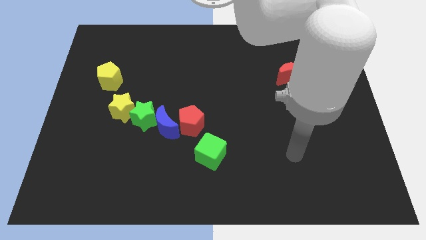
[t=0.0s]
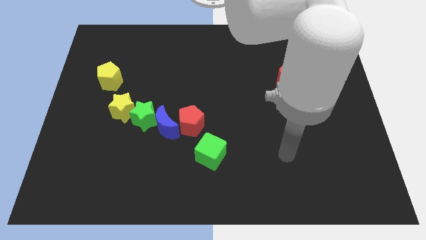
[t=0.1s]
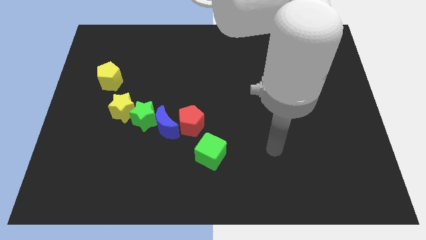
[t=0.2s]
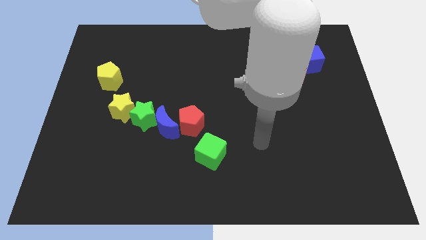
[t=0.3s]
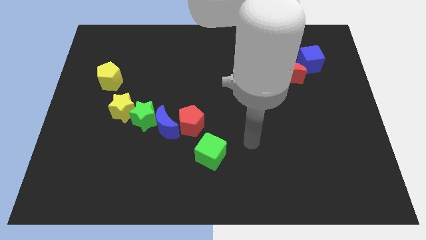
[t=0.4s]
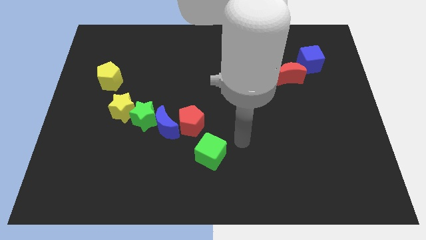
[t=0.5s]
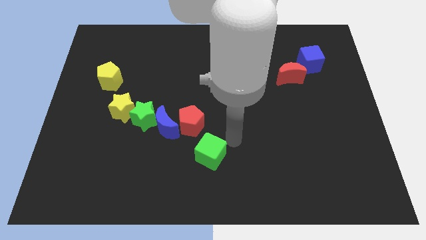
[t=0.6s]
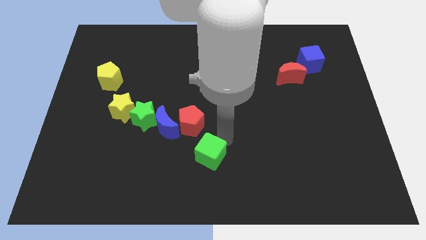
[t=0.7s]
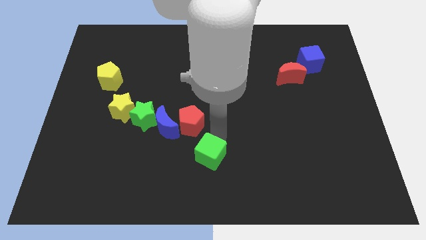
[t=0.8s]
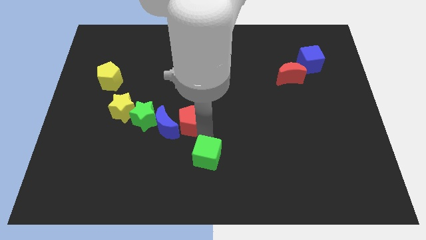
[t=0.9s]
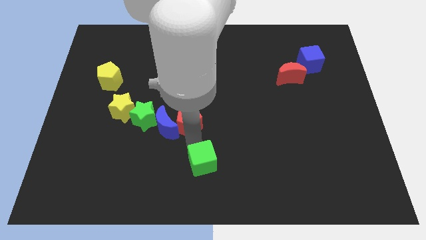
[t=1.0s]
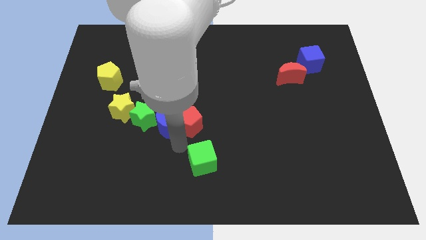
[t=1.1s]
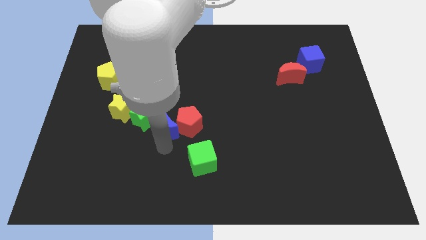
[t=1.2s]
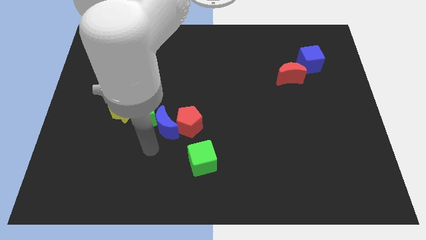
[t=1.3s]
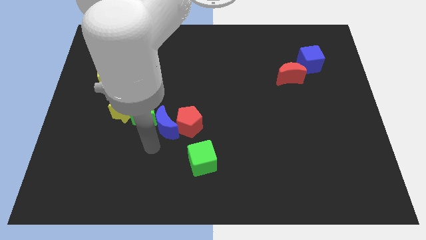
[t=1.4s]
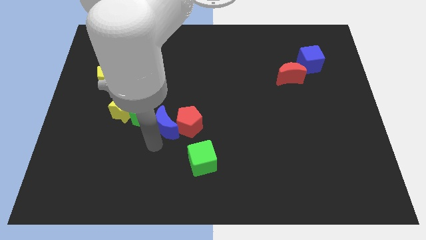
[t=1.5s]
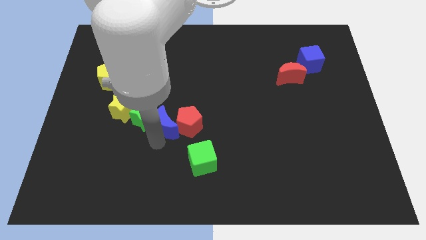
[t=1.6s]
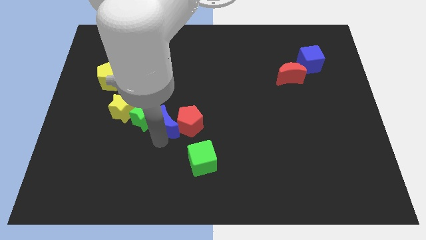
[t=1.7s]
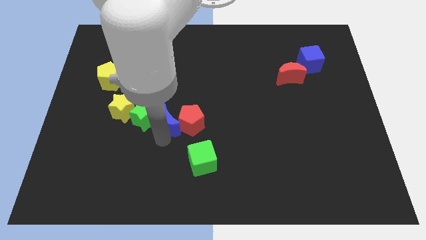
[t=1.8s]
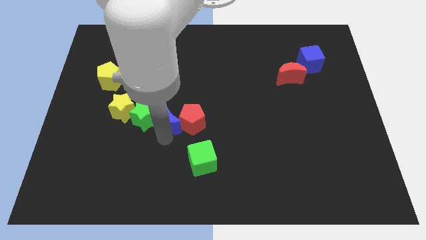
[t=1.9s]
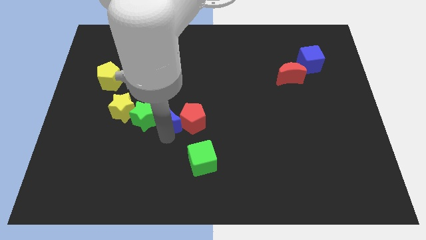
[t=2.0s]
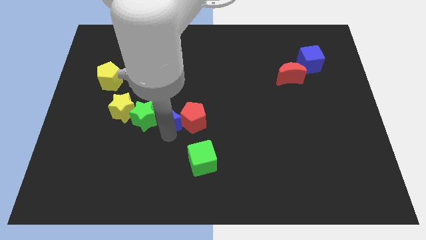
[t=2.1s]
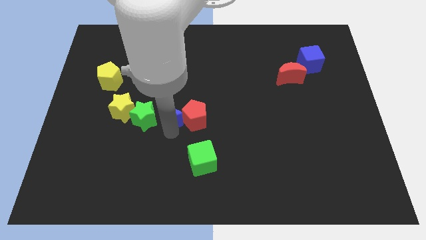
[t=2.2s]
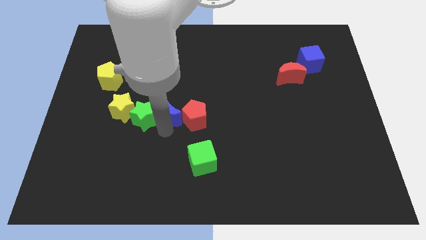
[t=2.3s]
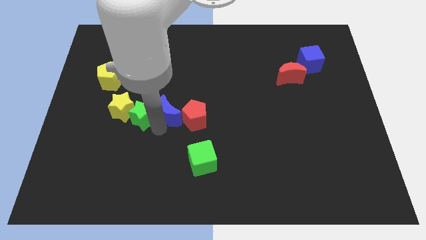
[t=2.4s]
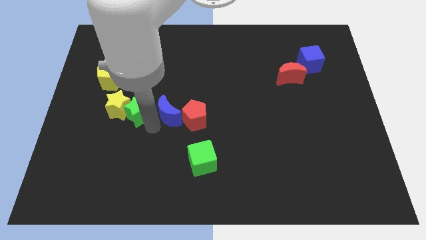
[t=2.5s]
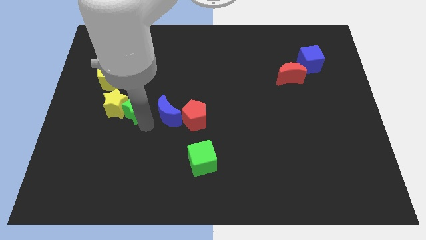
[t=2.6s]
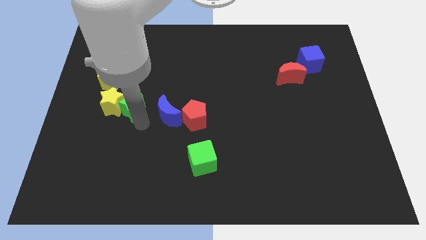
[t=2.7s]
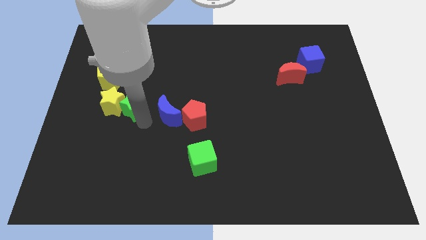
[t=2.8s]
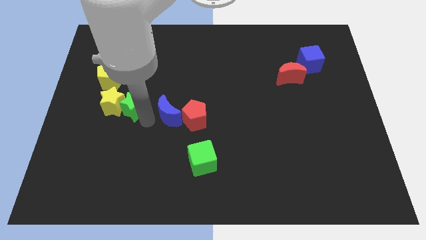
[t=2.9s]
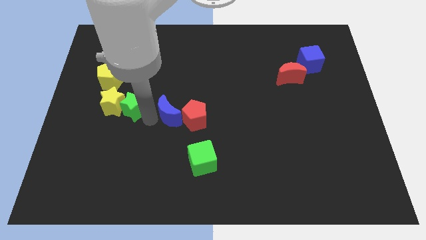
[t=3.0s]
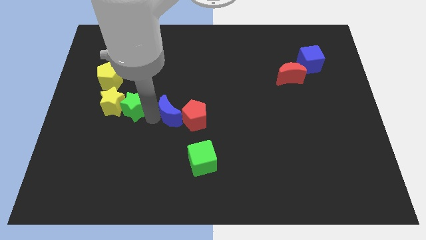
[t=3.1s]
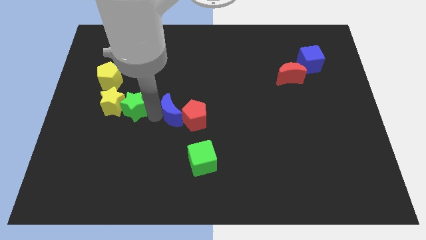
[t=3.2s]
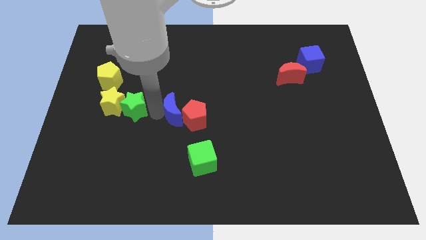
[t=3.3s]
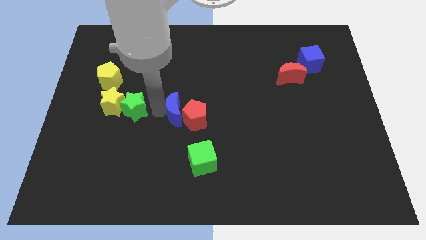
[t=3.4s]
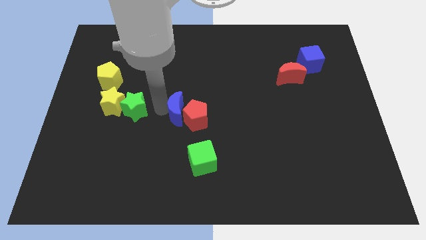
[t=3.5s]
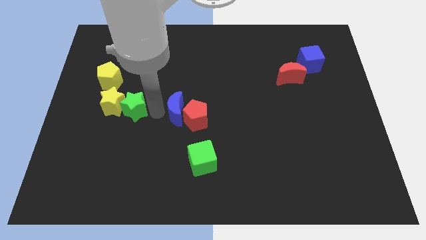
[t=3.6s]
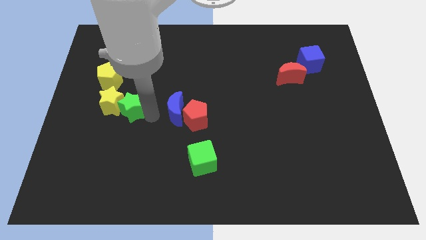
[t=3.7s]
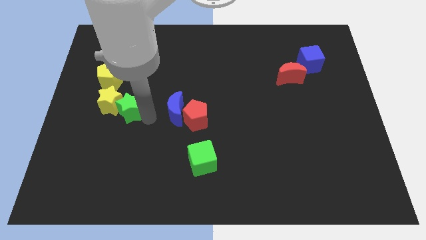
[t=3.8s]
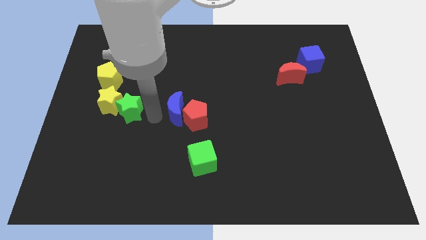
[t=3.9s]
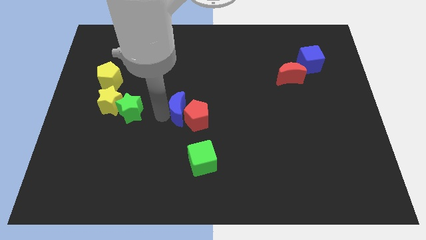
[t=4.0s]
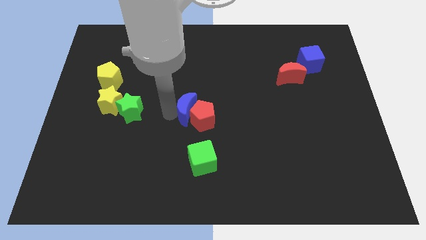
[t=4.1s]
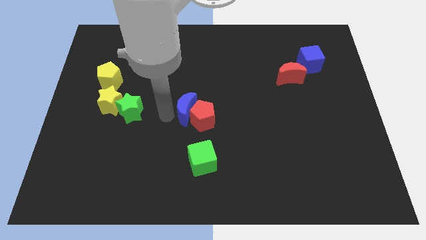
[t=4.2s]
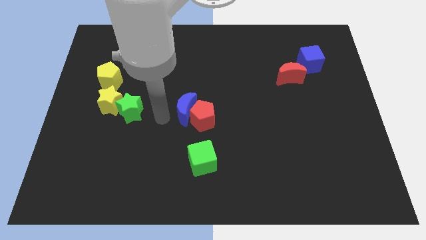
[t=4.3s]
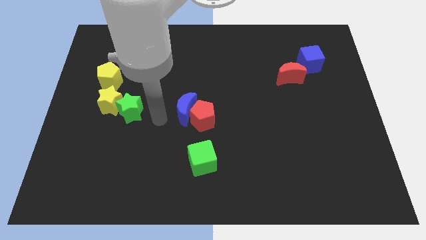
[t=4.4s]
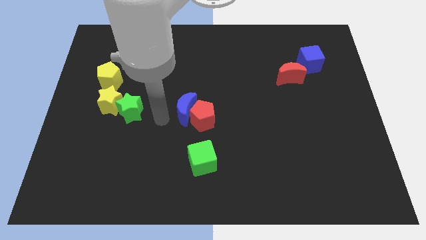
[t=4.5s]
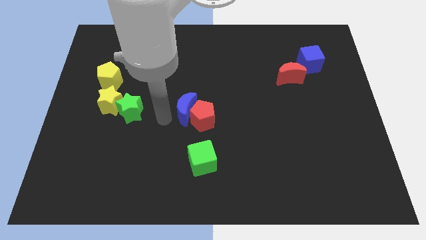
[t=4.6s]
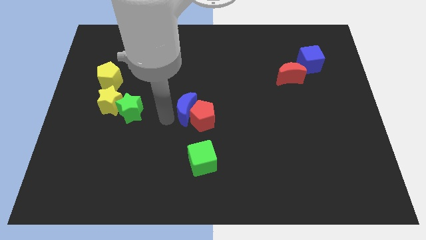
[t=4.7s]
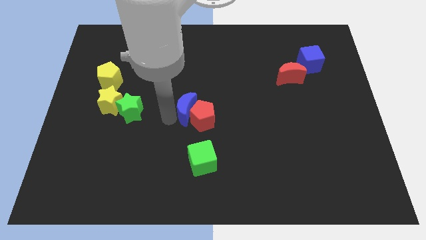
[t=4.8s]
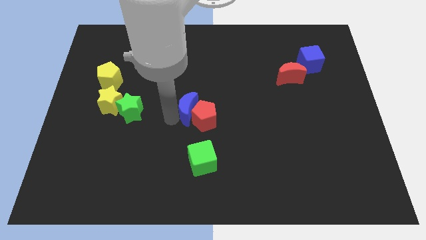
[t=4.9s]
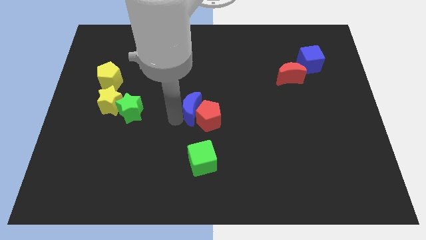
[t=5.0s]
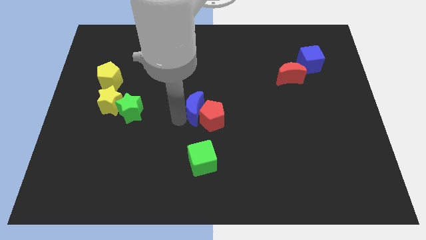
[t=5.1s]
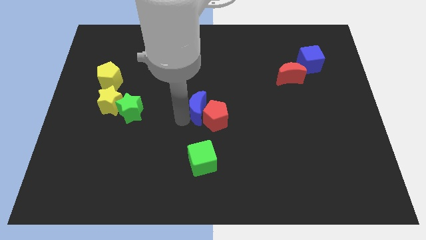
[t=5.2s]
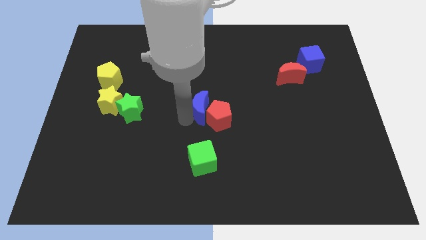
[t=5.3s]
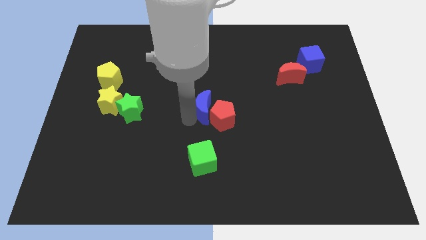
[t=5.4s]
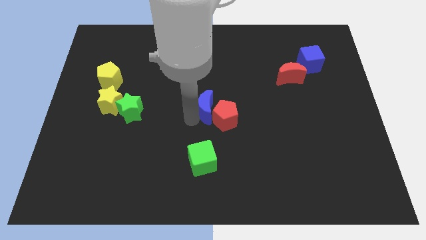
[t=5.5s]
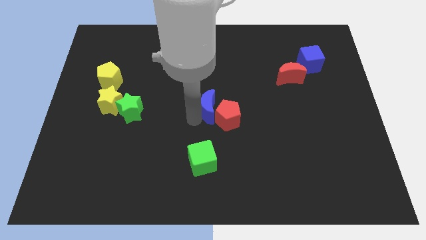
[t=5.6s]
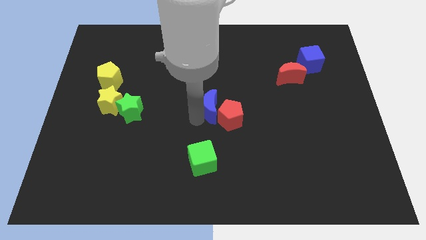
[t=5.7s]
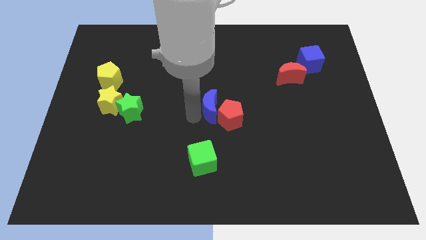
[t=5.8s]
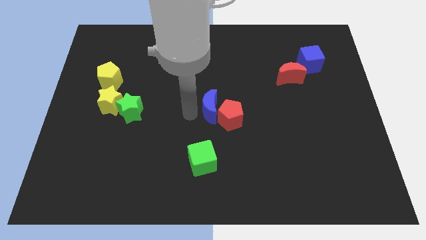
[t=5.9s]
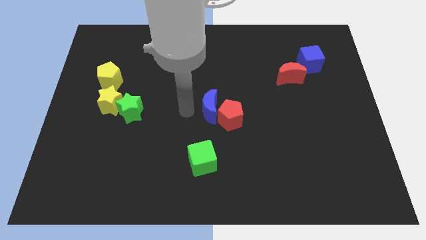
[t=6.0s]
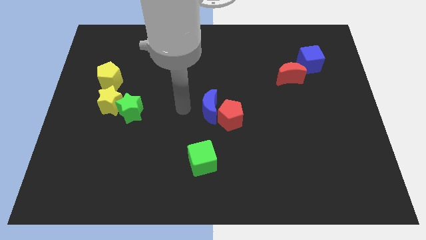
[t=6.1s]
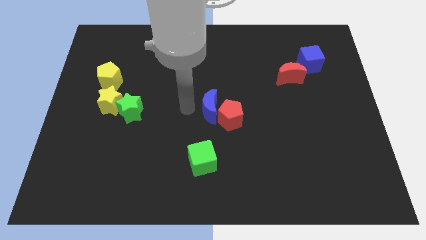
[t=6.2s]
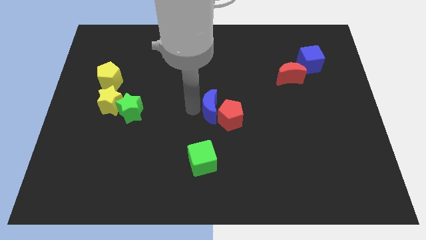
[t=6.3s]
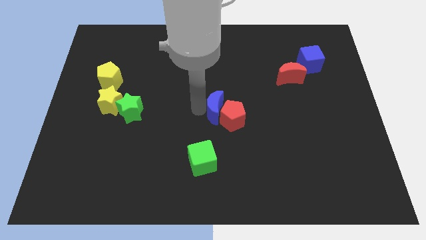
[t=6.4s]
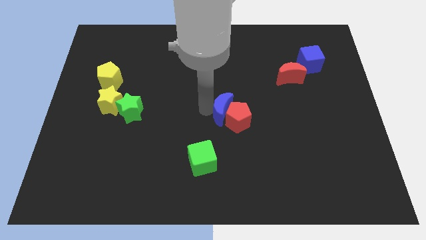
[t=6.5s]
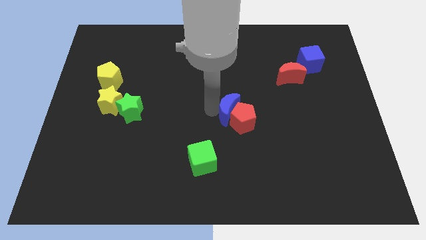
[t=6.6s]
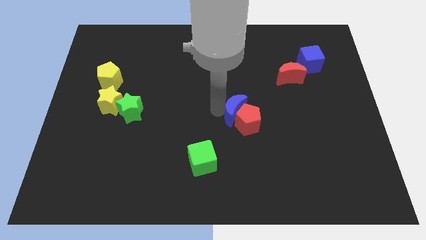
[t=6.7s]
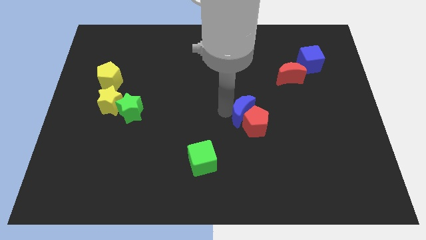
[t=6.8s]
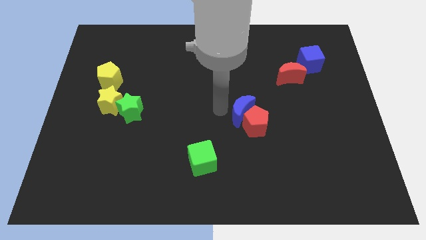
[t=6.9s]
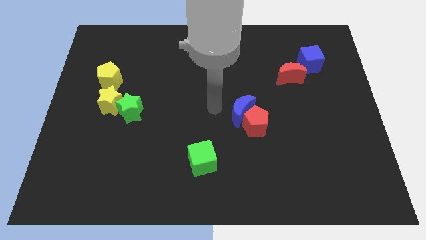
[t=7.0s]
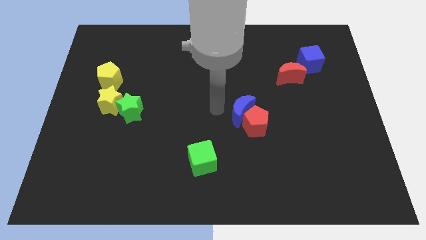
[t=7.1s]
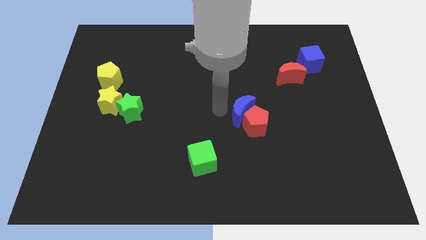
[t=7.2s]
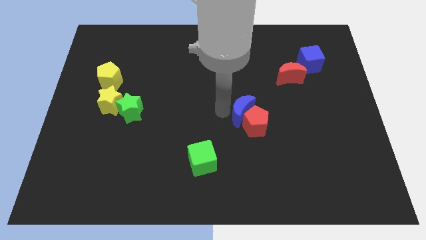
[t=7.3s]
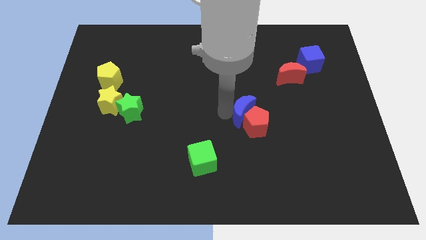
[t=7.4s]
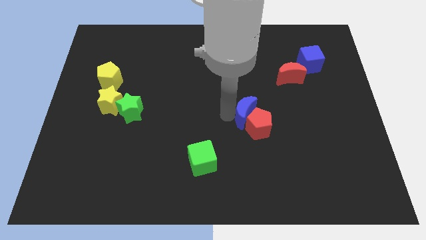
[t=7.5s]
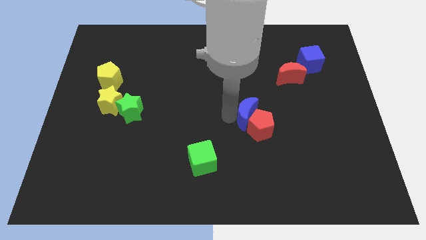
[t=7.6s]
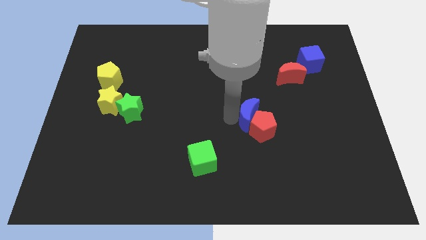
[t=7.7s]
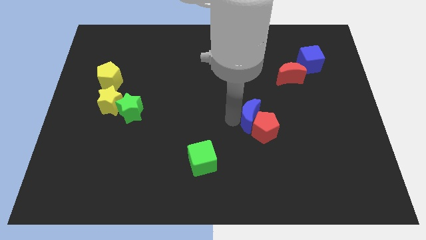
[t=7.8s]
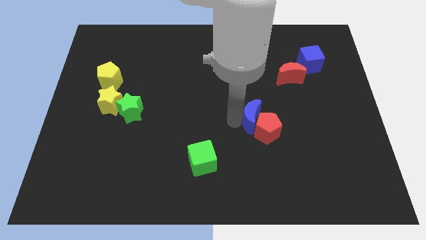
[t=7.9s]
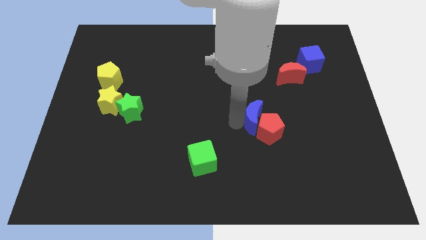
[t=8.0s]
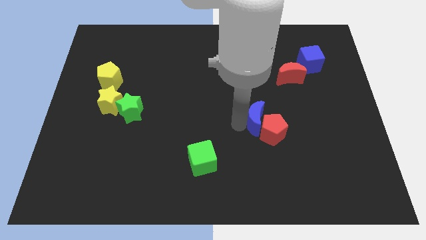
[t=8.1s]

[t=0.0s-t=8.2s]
move the blue moon to the right
